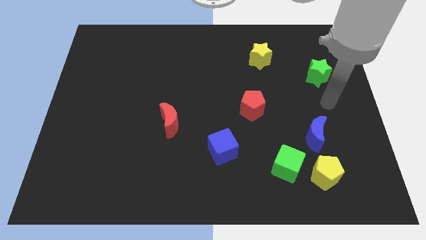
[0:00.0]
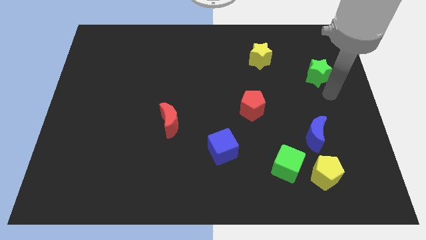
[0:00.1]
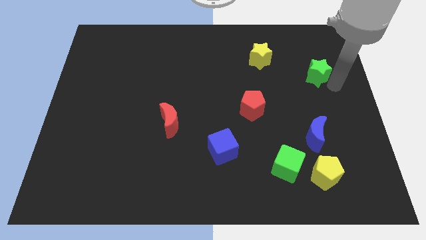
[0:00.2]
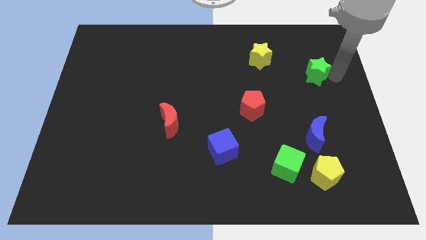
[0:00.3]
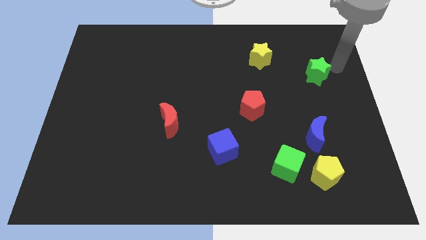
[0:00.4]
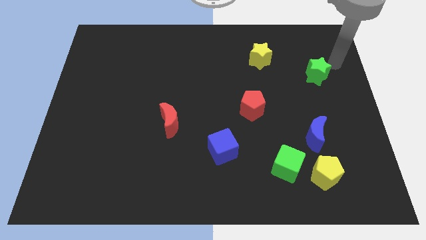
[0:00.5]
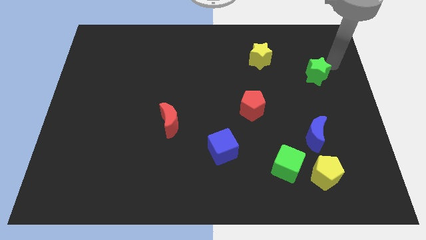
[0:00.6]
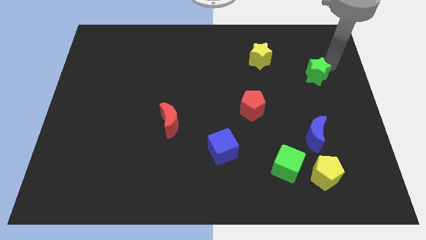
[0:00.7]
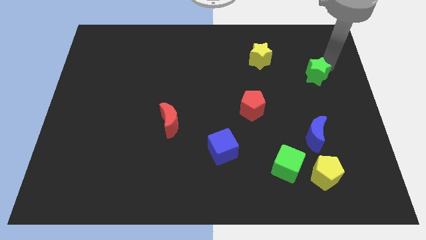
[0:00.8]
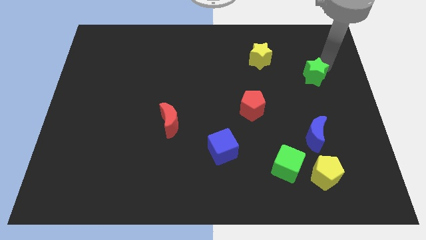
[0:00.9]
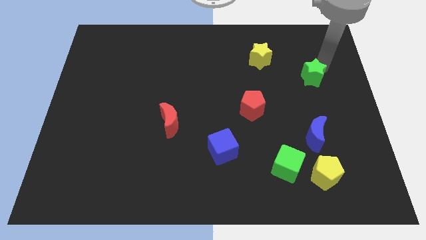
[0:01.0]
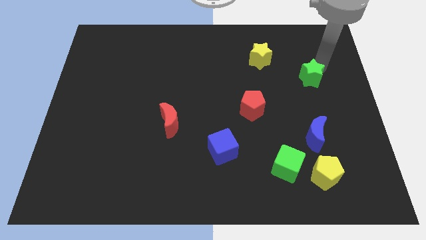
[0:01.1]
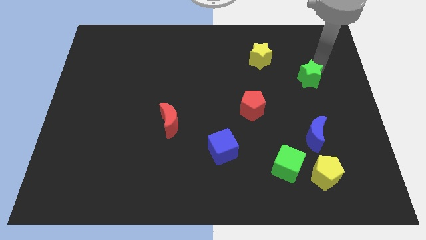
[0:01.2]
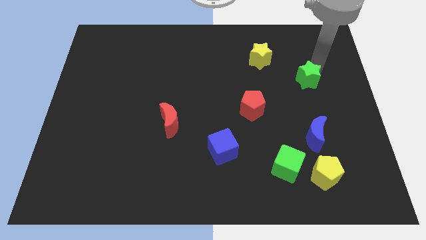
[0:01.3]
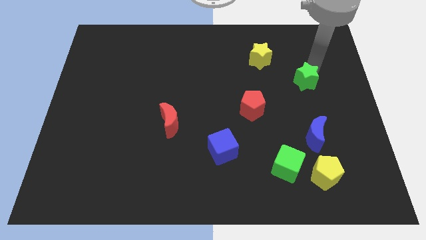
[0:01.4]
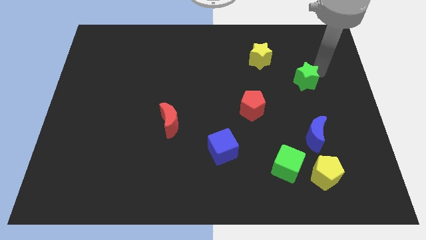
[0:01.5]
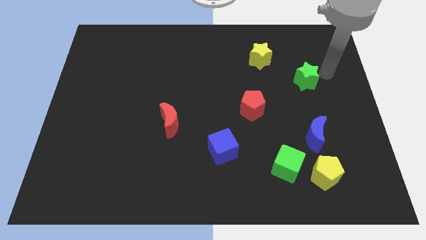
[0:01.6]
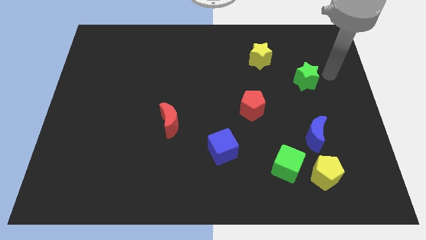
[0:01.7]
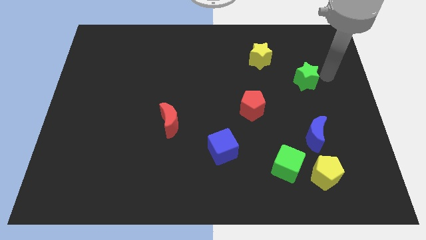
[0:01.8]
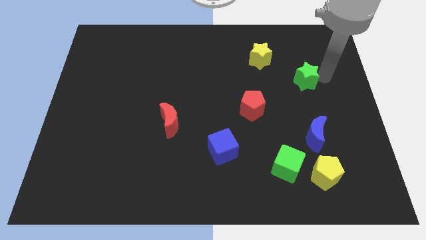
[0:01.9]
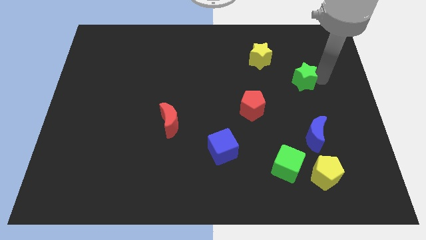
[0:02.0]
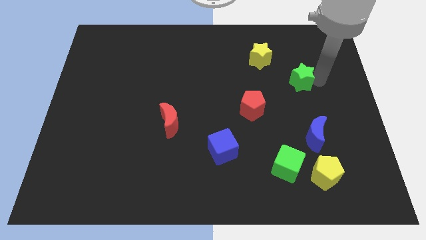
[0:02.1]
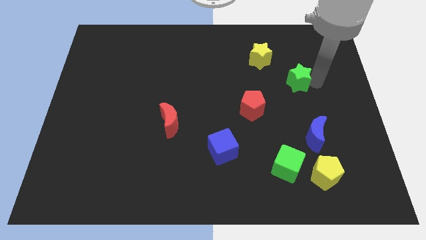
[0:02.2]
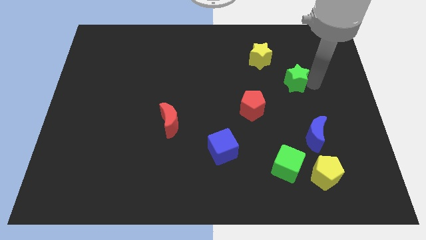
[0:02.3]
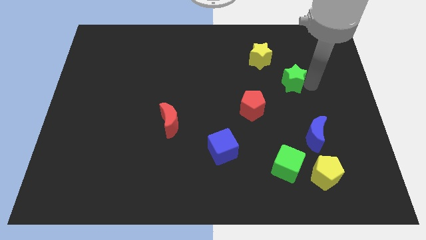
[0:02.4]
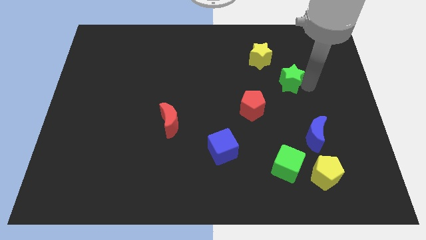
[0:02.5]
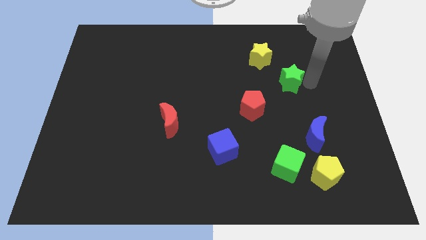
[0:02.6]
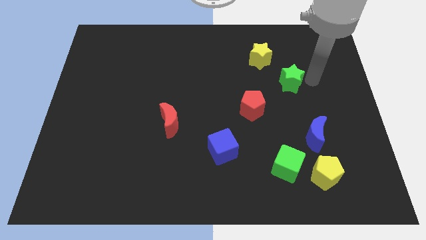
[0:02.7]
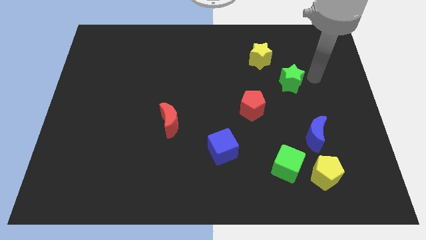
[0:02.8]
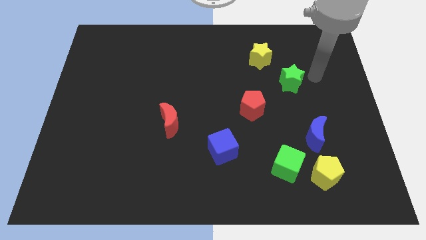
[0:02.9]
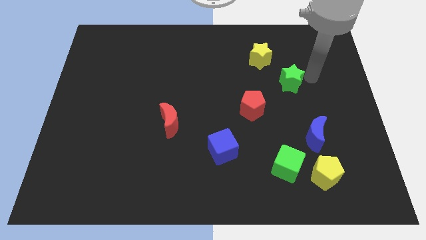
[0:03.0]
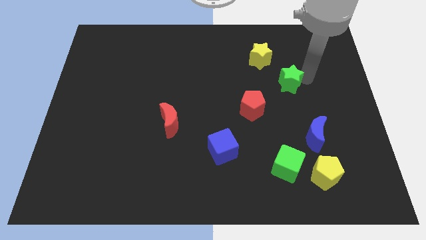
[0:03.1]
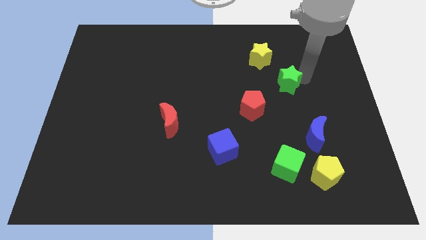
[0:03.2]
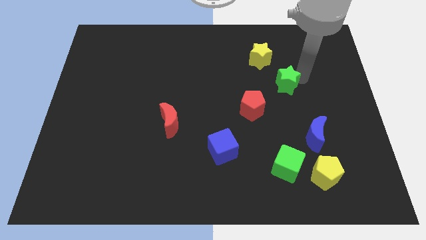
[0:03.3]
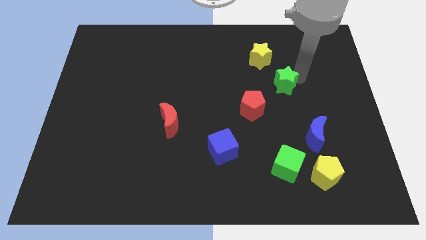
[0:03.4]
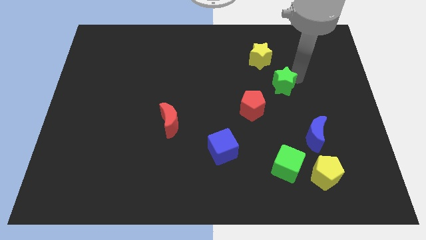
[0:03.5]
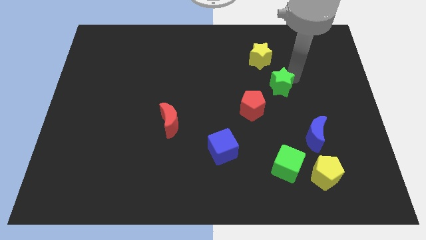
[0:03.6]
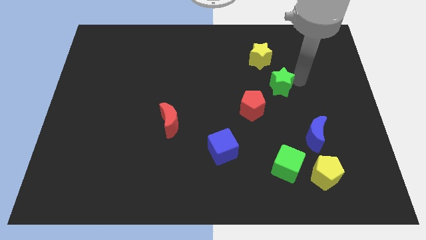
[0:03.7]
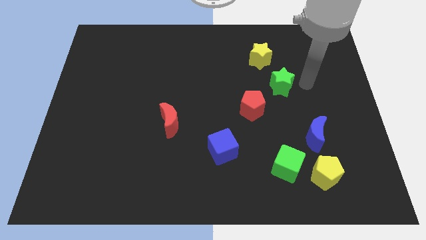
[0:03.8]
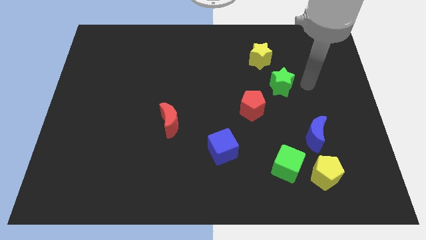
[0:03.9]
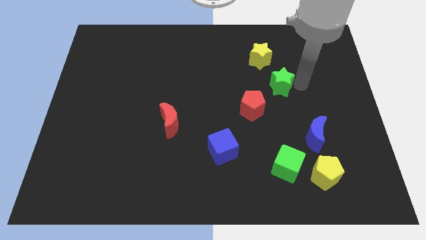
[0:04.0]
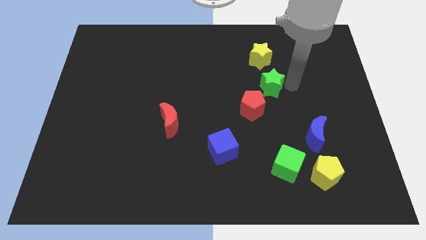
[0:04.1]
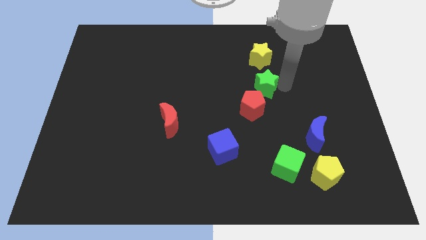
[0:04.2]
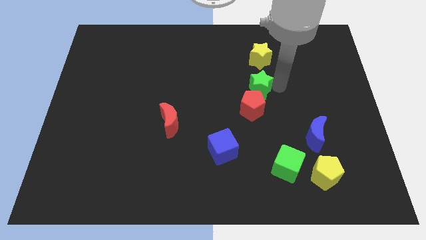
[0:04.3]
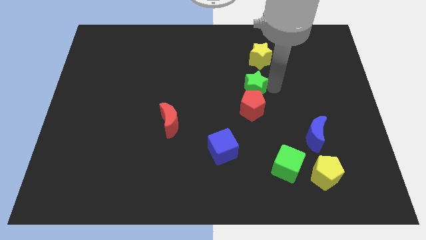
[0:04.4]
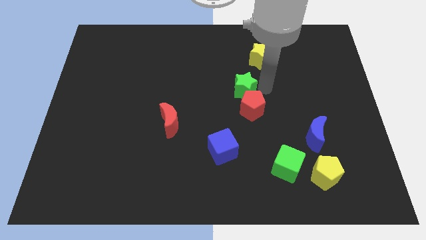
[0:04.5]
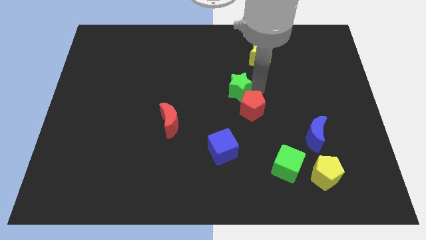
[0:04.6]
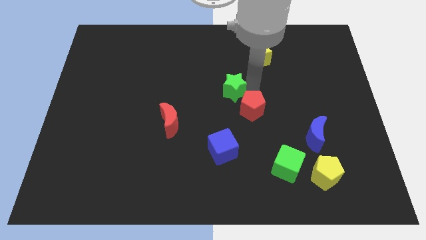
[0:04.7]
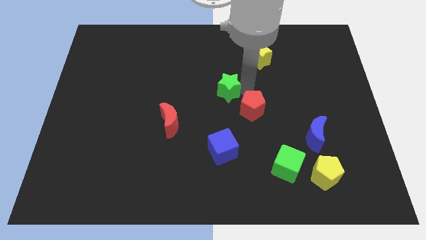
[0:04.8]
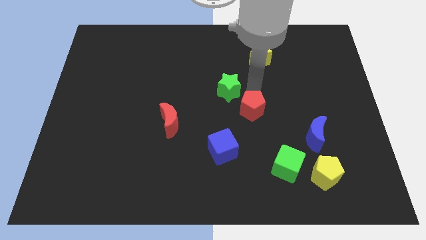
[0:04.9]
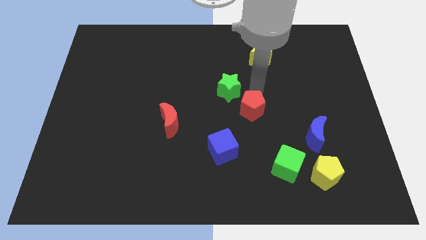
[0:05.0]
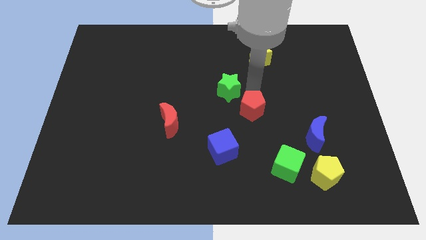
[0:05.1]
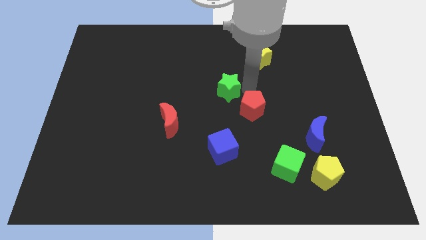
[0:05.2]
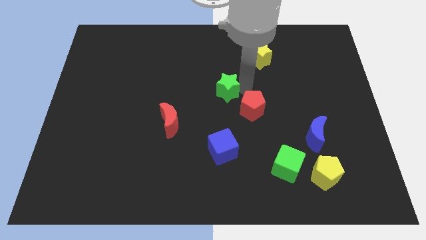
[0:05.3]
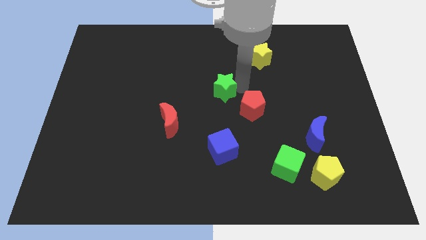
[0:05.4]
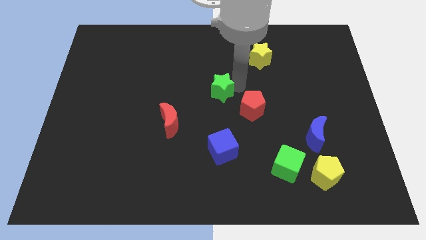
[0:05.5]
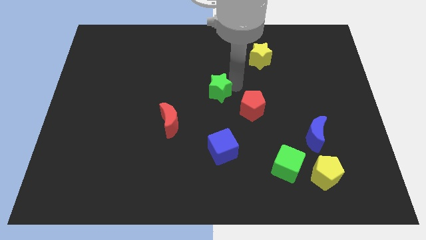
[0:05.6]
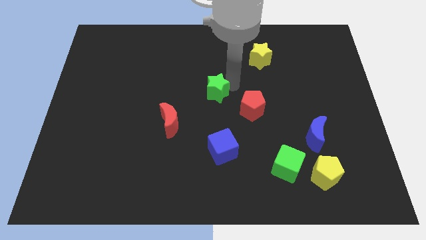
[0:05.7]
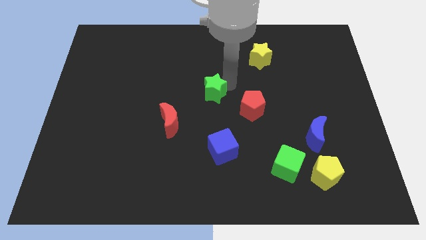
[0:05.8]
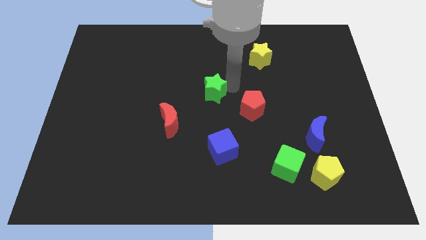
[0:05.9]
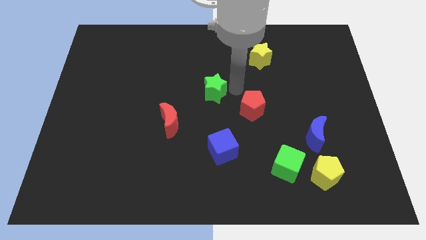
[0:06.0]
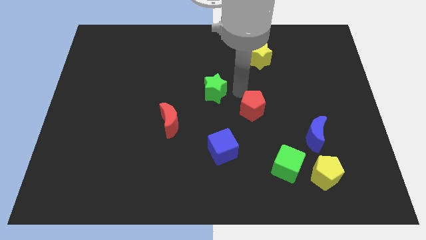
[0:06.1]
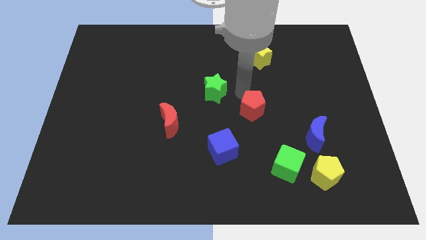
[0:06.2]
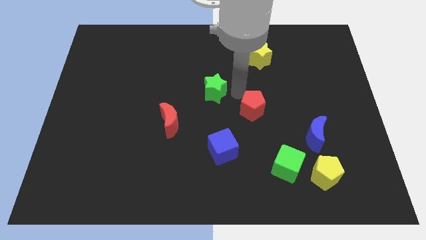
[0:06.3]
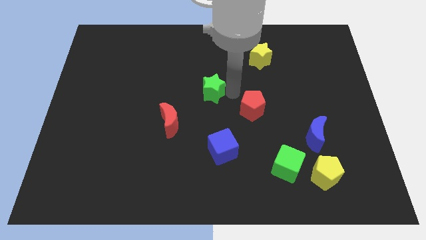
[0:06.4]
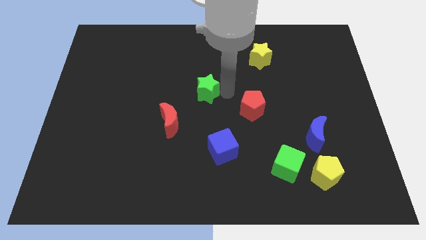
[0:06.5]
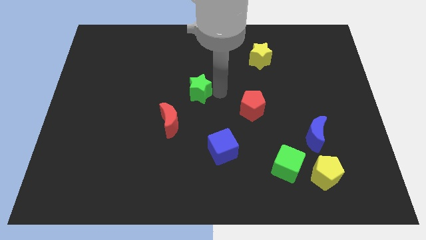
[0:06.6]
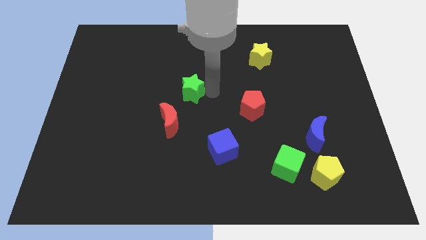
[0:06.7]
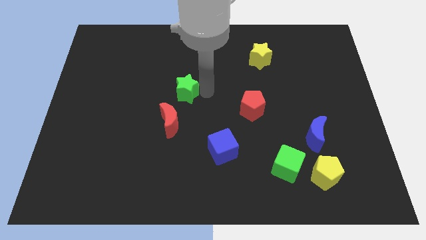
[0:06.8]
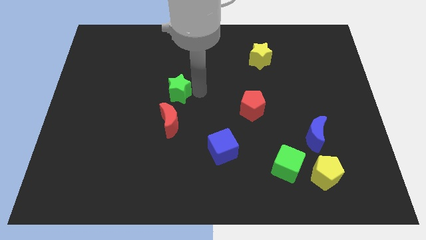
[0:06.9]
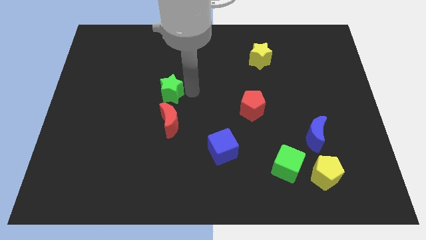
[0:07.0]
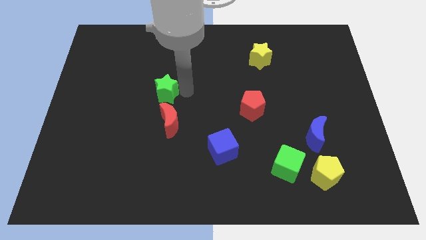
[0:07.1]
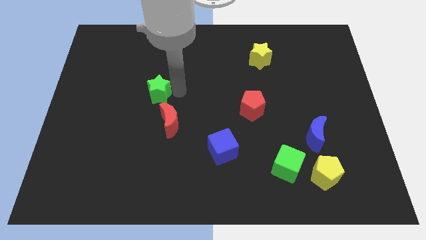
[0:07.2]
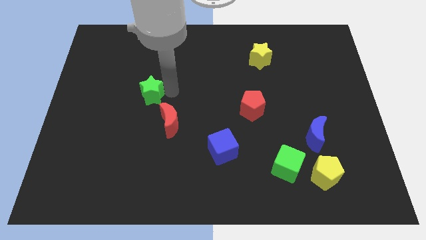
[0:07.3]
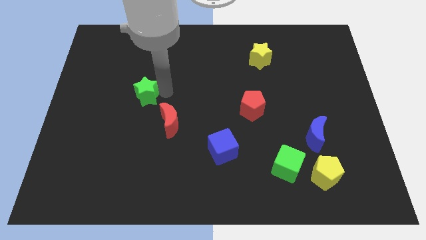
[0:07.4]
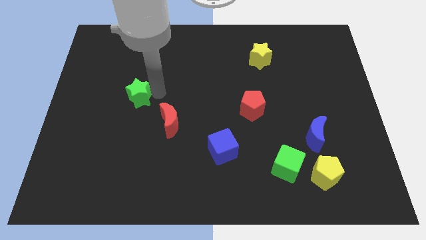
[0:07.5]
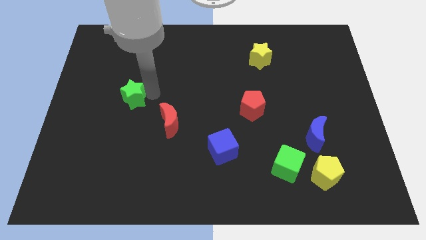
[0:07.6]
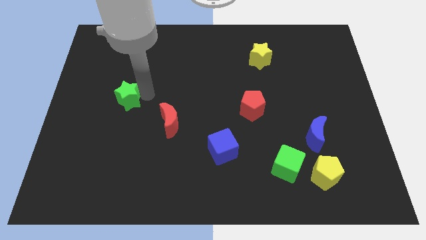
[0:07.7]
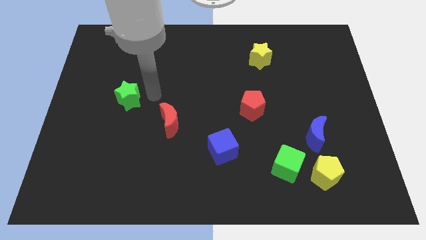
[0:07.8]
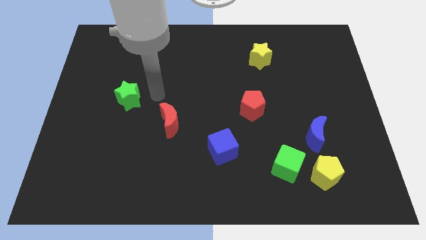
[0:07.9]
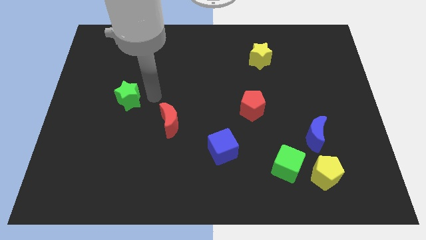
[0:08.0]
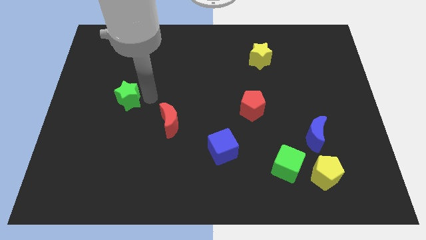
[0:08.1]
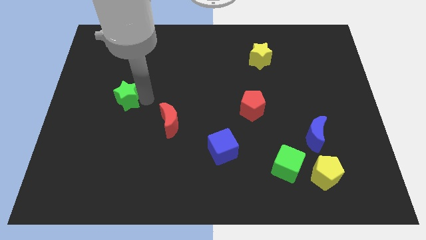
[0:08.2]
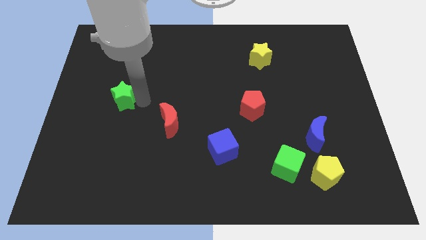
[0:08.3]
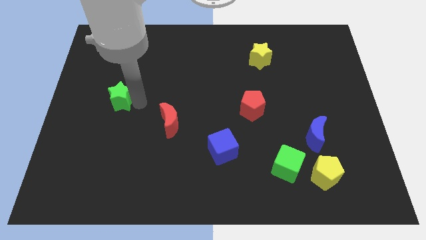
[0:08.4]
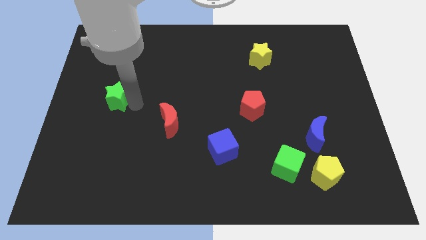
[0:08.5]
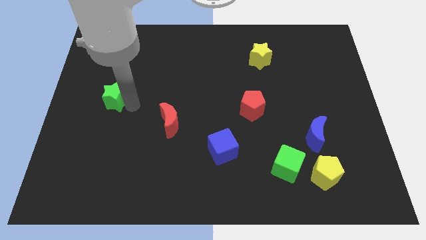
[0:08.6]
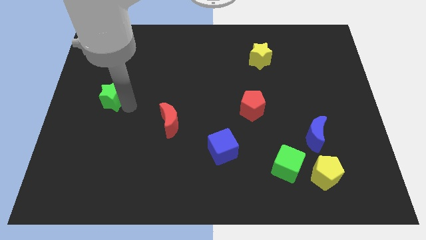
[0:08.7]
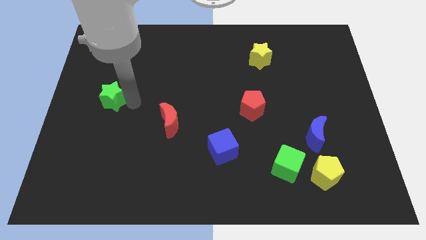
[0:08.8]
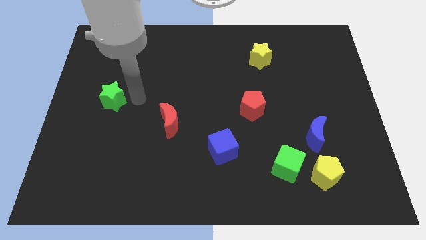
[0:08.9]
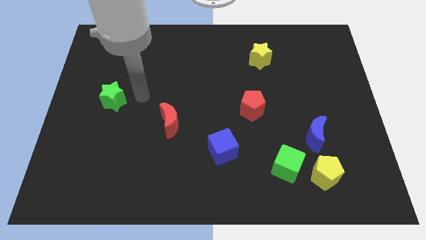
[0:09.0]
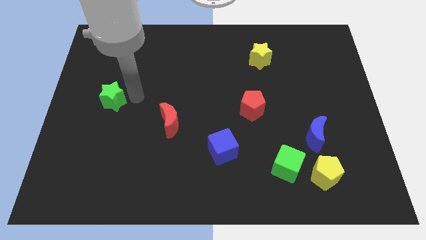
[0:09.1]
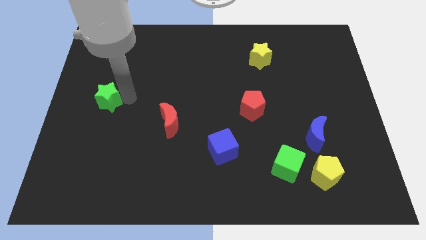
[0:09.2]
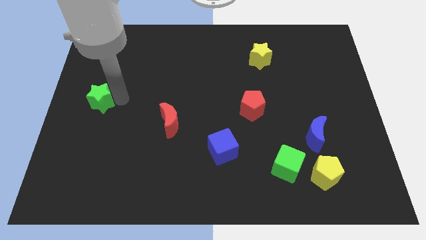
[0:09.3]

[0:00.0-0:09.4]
push the green star to the center left
